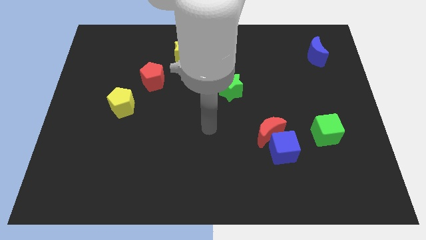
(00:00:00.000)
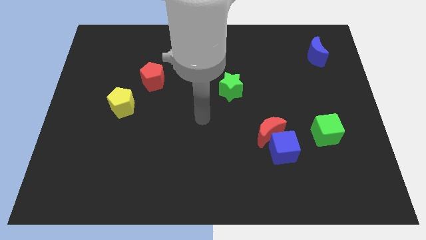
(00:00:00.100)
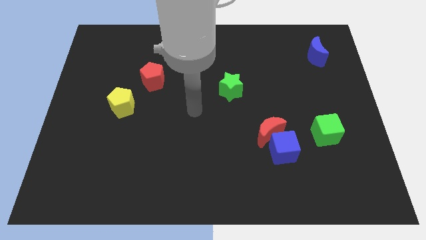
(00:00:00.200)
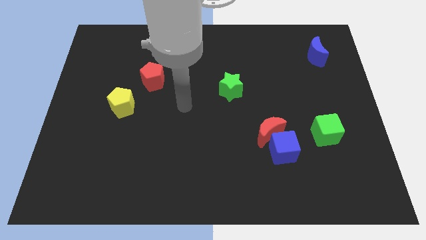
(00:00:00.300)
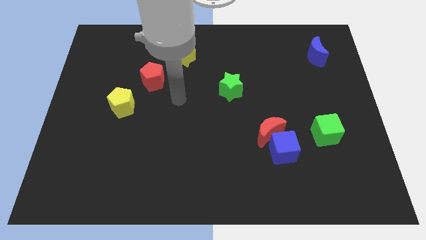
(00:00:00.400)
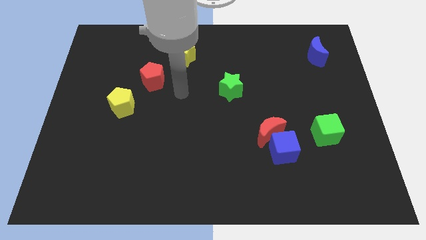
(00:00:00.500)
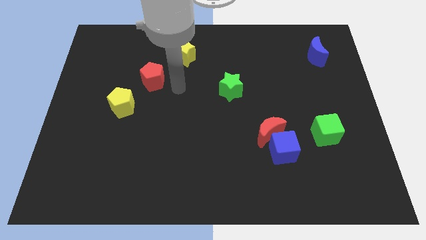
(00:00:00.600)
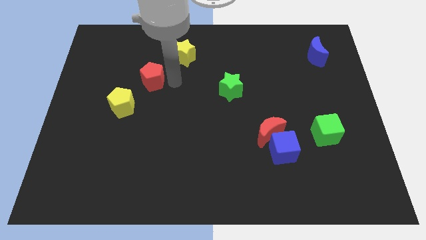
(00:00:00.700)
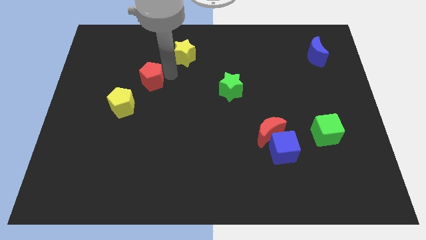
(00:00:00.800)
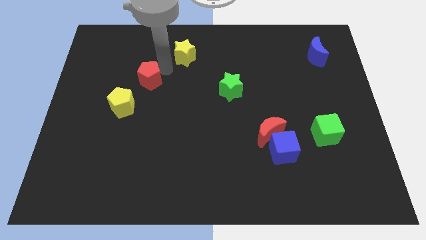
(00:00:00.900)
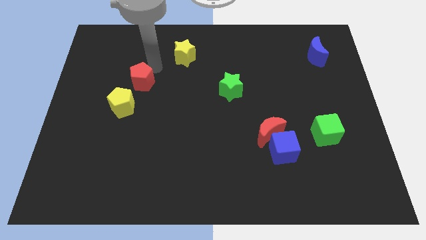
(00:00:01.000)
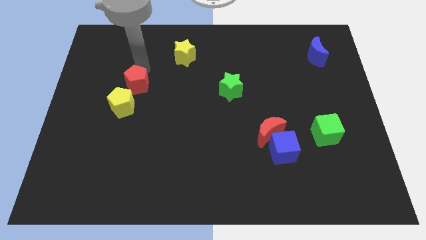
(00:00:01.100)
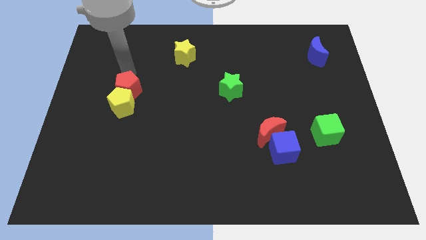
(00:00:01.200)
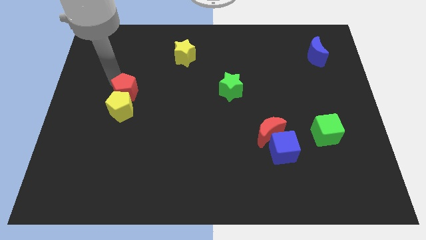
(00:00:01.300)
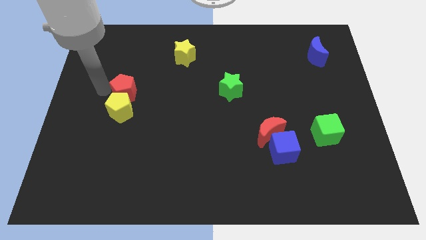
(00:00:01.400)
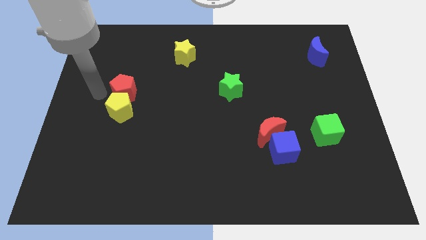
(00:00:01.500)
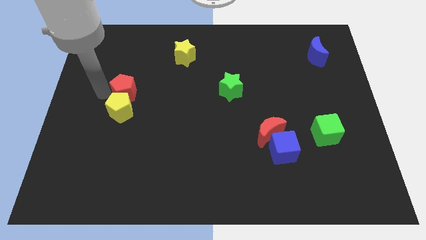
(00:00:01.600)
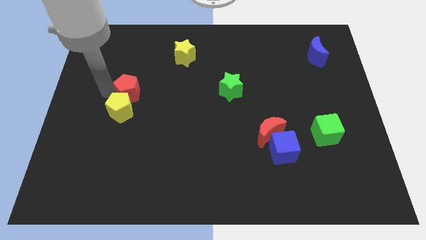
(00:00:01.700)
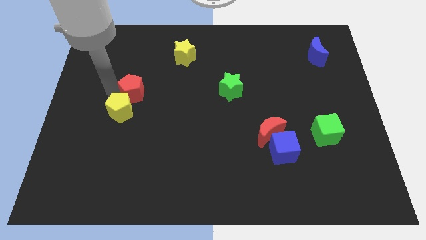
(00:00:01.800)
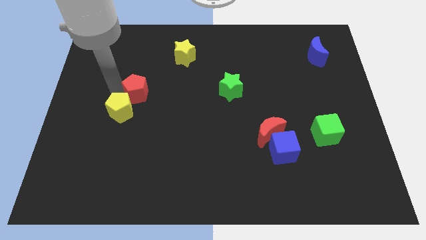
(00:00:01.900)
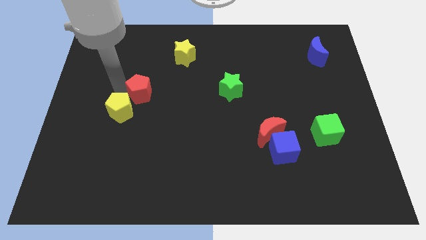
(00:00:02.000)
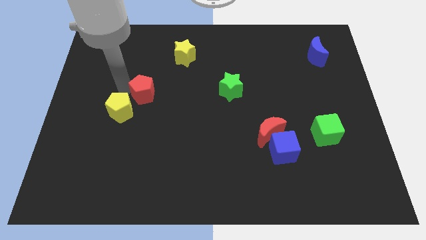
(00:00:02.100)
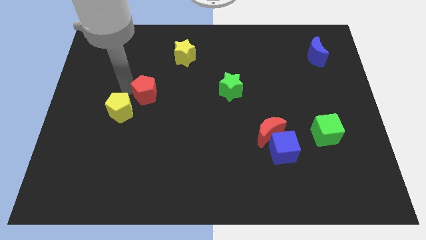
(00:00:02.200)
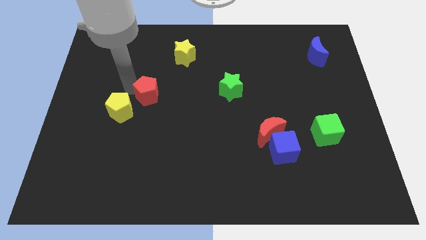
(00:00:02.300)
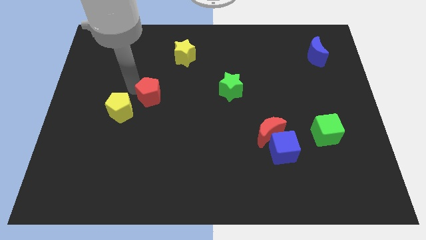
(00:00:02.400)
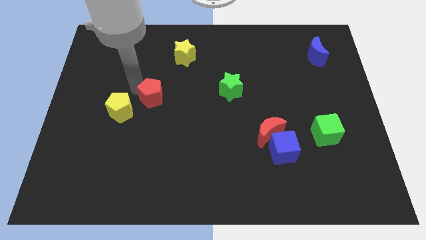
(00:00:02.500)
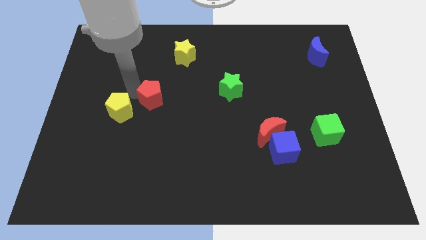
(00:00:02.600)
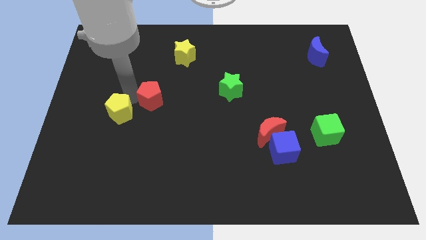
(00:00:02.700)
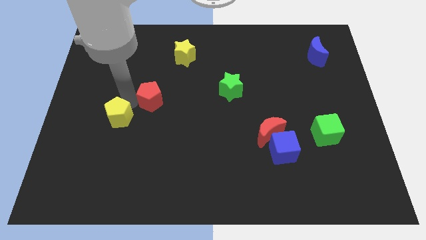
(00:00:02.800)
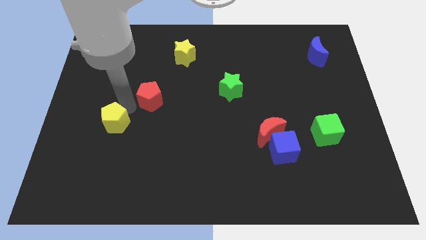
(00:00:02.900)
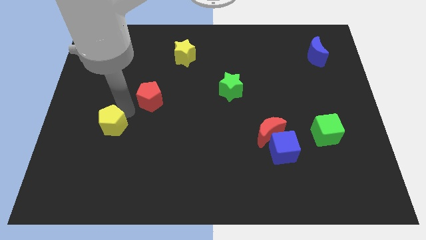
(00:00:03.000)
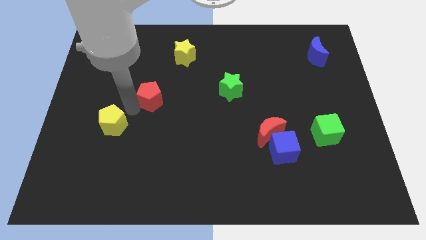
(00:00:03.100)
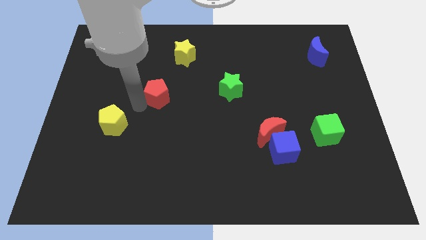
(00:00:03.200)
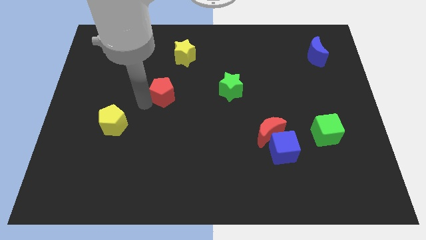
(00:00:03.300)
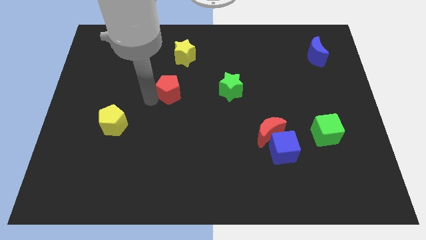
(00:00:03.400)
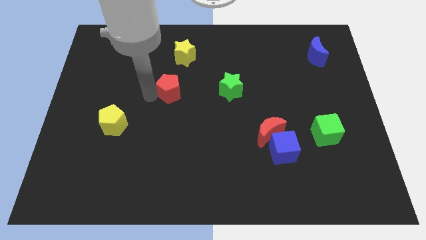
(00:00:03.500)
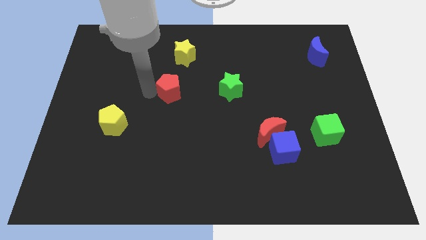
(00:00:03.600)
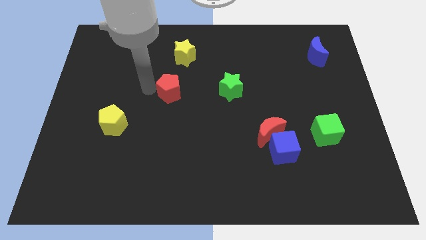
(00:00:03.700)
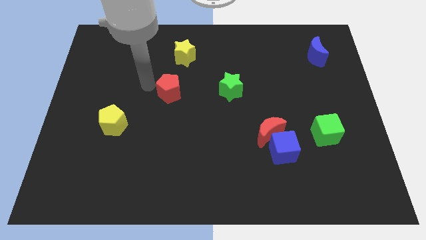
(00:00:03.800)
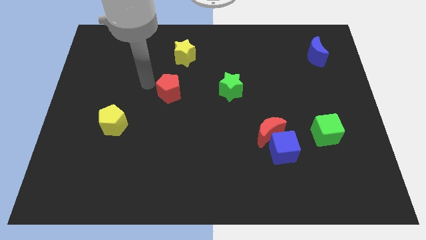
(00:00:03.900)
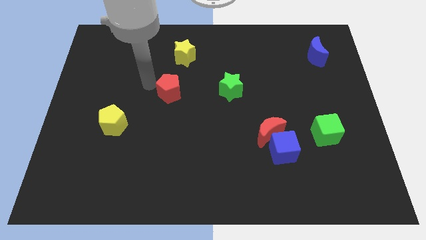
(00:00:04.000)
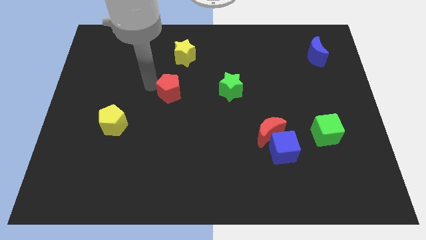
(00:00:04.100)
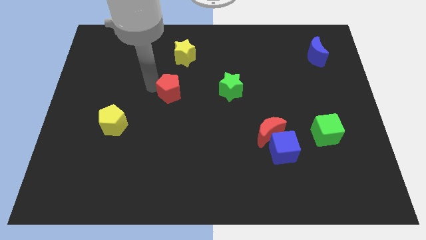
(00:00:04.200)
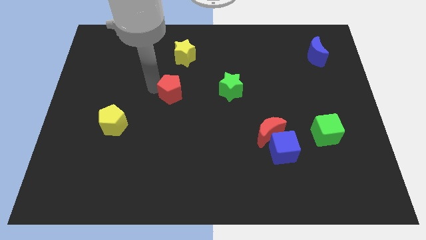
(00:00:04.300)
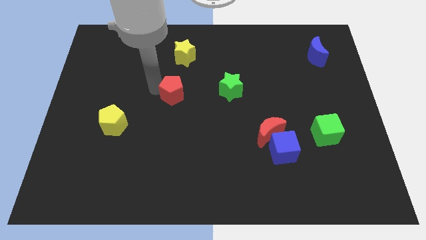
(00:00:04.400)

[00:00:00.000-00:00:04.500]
move the red pentagon a little bit diagonally down and right

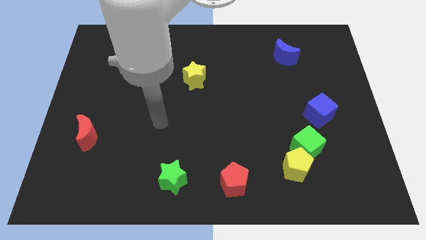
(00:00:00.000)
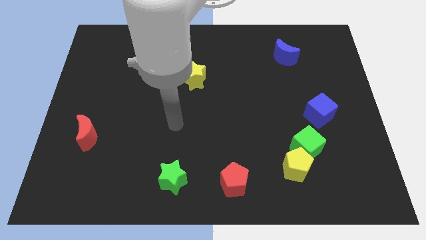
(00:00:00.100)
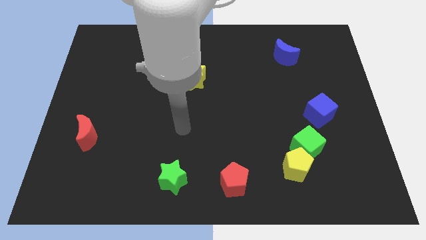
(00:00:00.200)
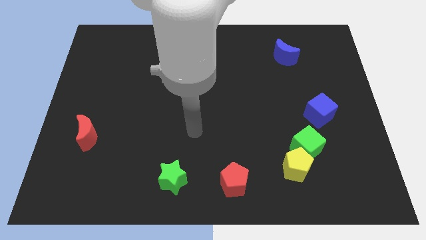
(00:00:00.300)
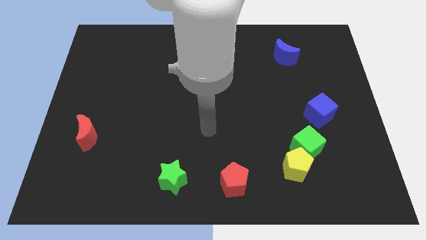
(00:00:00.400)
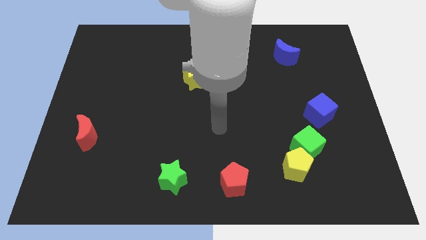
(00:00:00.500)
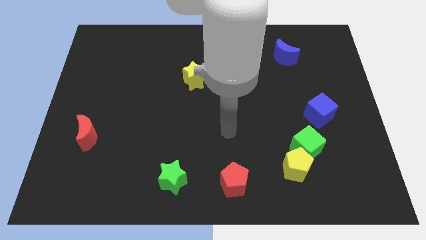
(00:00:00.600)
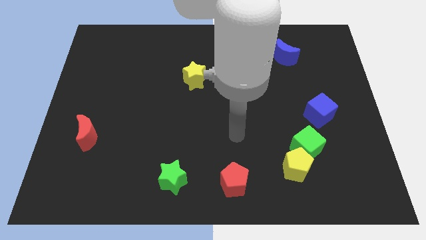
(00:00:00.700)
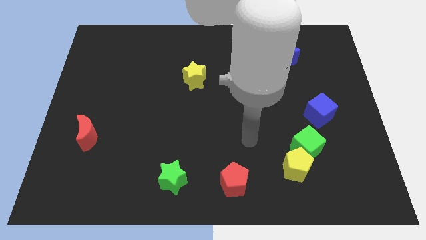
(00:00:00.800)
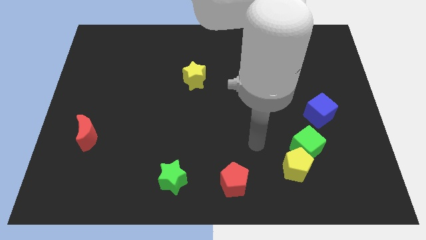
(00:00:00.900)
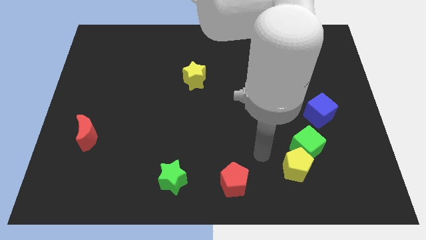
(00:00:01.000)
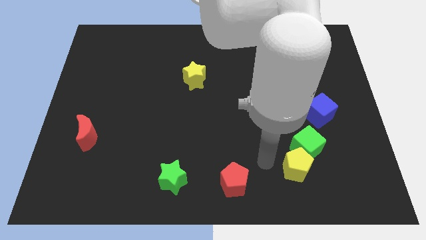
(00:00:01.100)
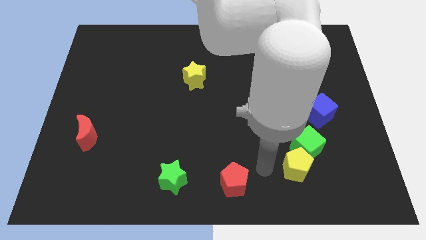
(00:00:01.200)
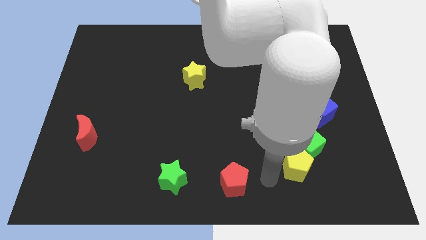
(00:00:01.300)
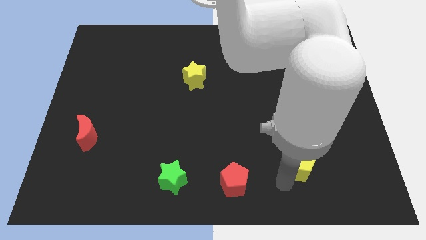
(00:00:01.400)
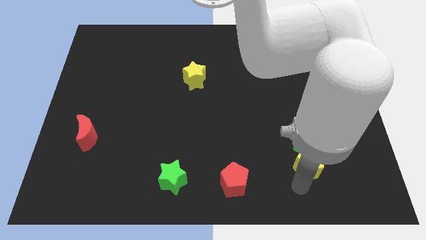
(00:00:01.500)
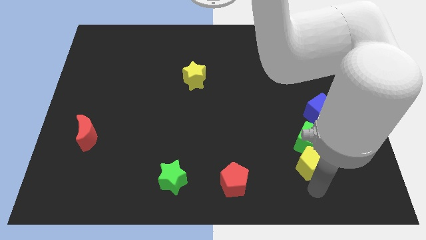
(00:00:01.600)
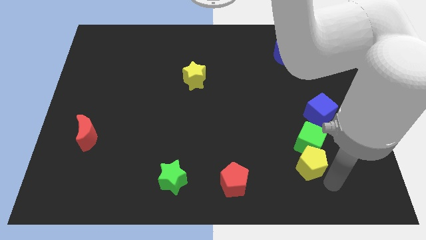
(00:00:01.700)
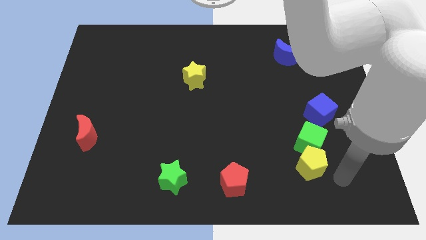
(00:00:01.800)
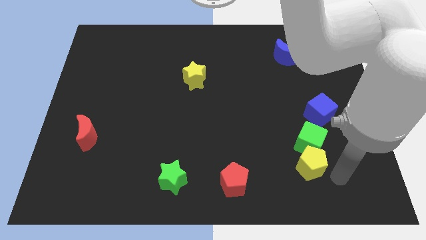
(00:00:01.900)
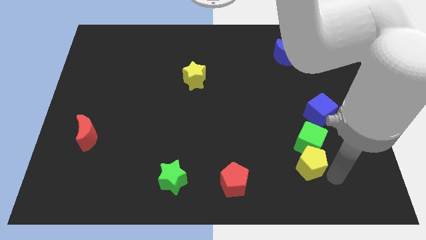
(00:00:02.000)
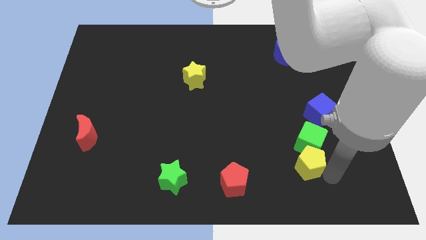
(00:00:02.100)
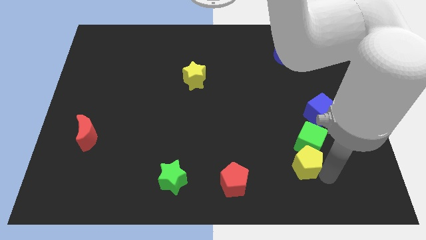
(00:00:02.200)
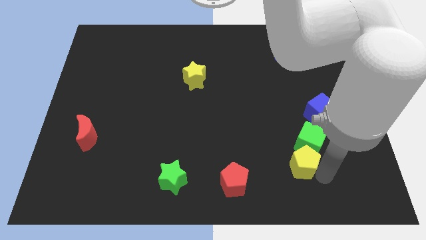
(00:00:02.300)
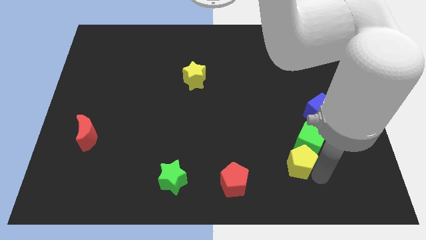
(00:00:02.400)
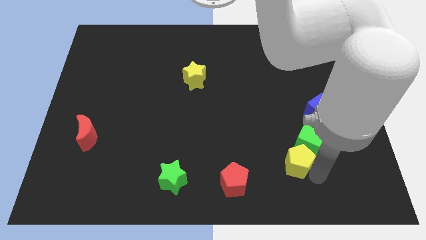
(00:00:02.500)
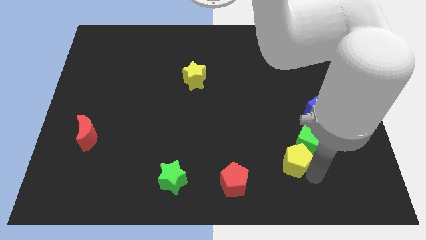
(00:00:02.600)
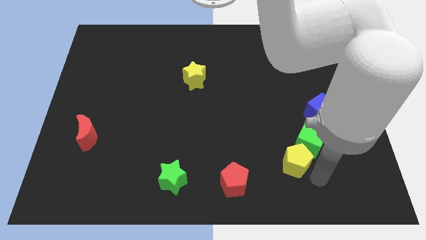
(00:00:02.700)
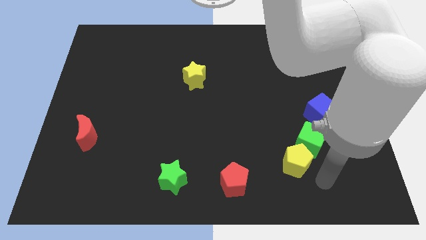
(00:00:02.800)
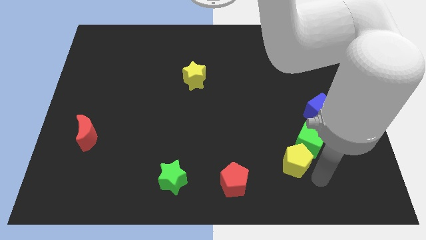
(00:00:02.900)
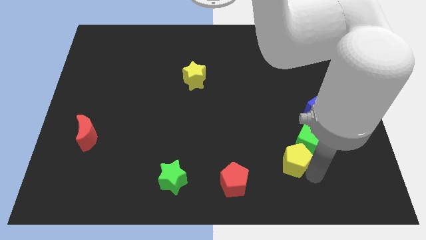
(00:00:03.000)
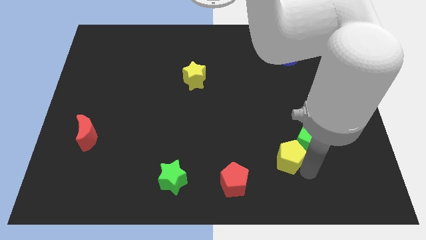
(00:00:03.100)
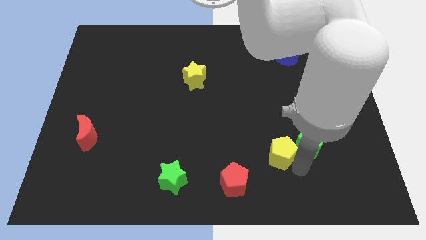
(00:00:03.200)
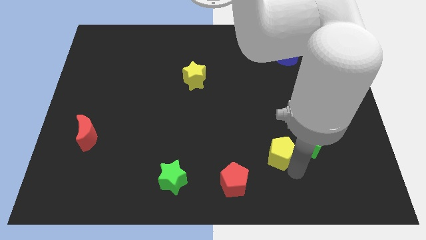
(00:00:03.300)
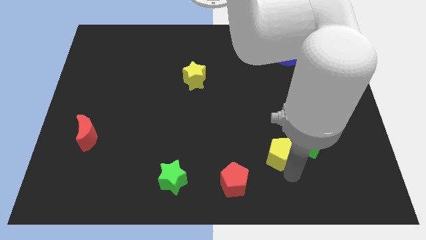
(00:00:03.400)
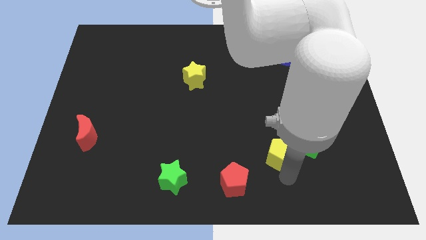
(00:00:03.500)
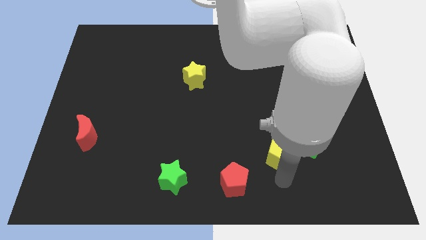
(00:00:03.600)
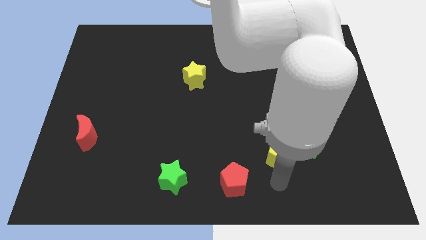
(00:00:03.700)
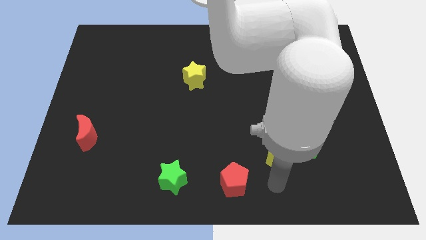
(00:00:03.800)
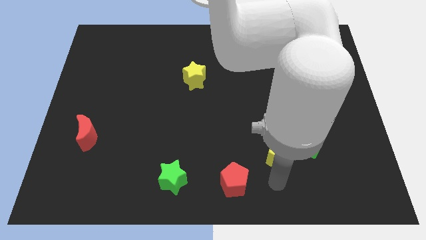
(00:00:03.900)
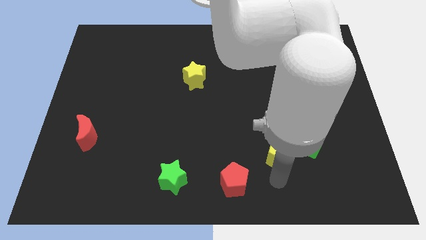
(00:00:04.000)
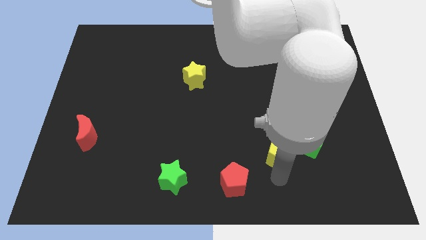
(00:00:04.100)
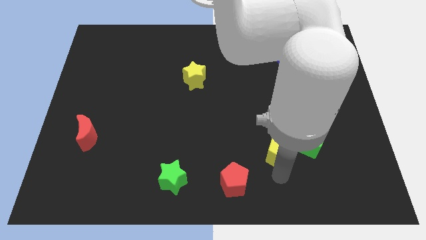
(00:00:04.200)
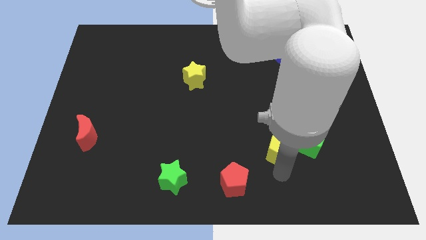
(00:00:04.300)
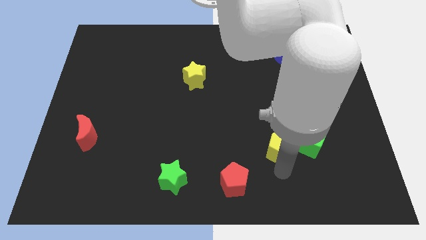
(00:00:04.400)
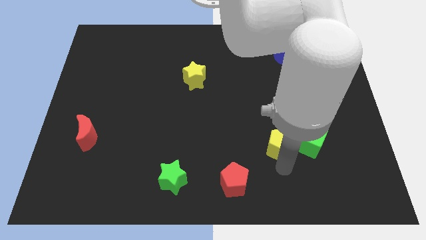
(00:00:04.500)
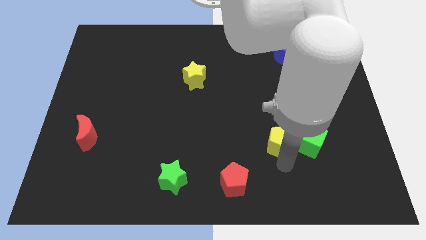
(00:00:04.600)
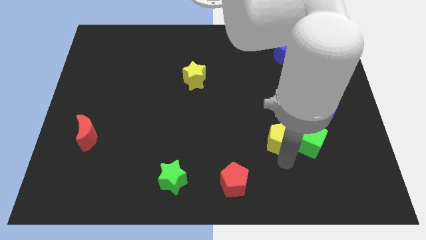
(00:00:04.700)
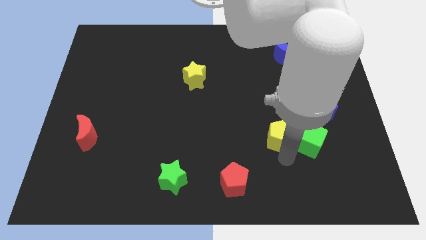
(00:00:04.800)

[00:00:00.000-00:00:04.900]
push the yellow pentagon somewhat up
